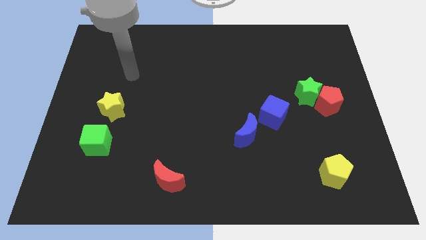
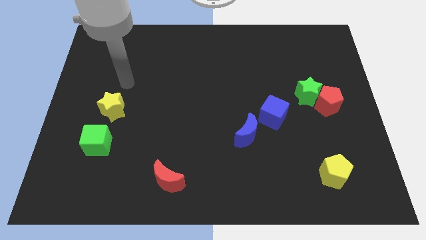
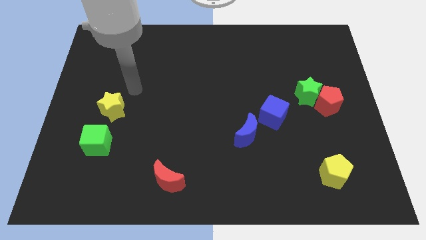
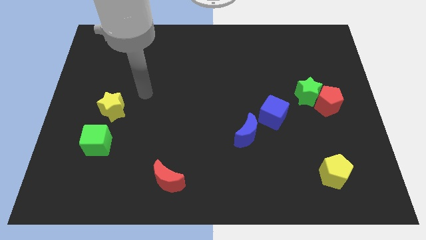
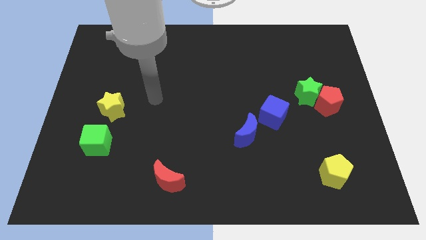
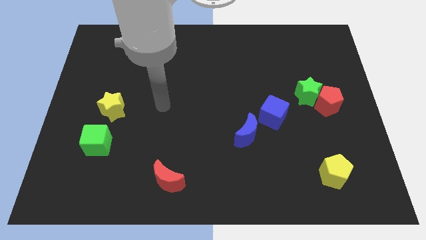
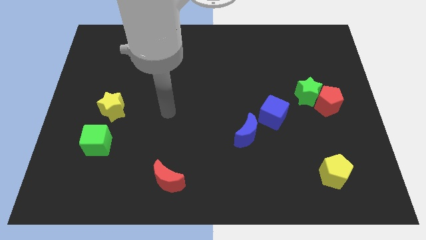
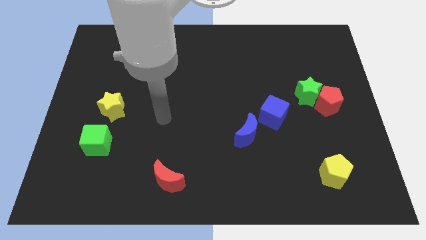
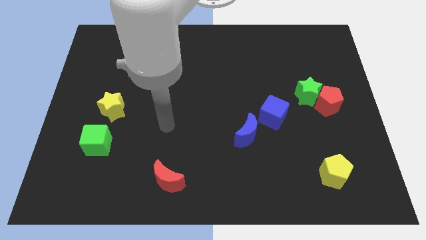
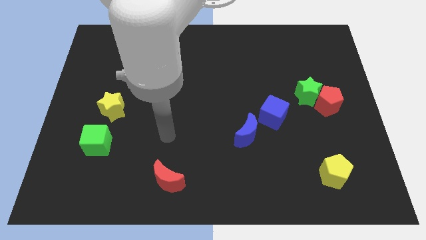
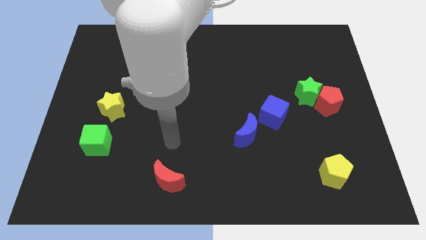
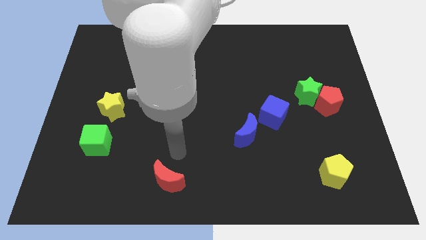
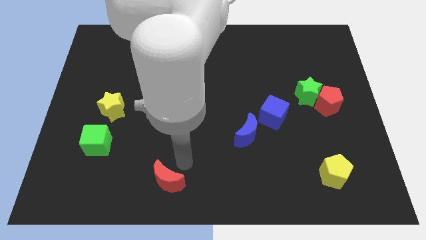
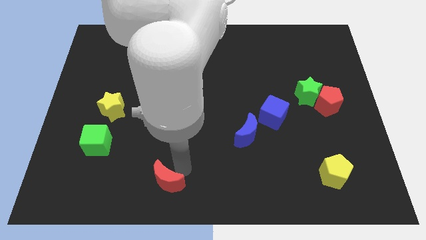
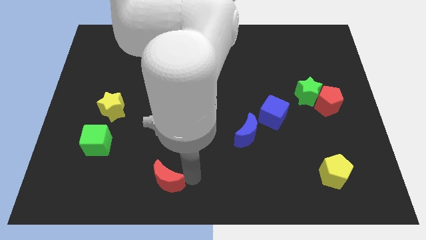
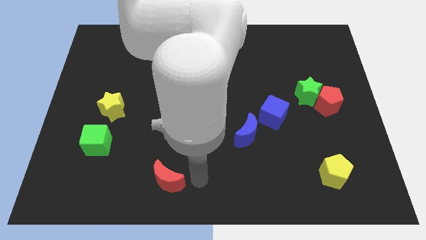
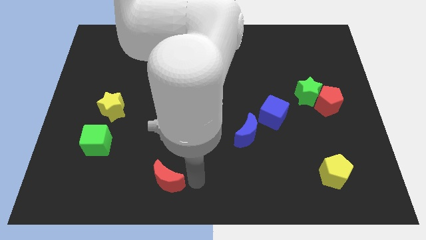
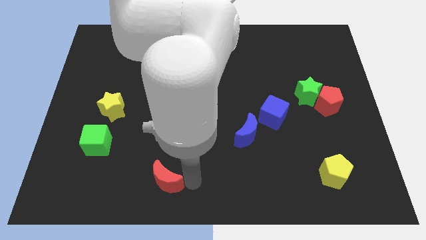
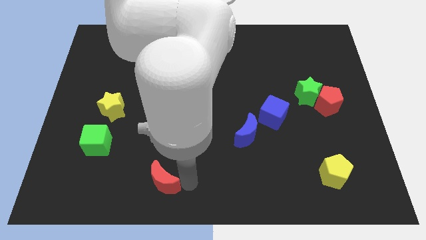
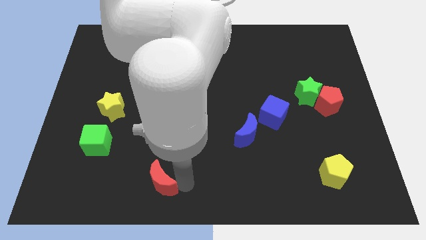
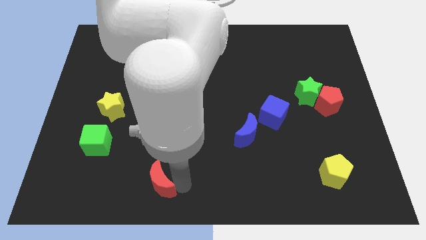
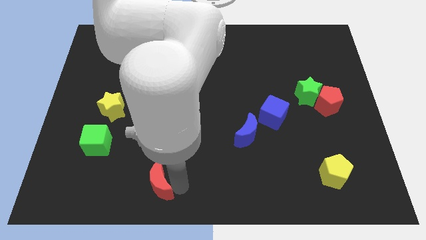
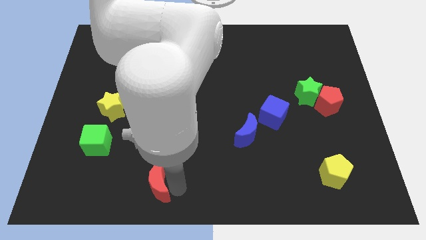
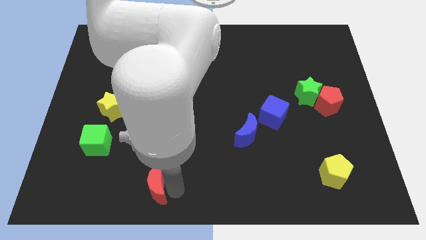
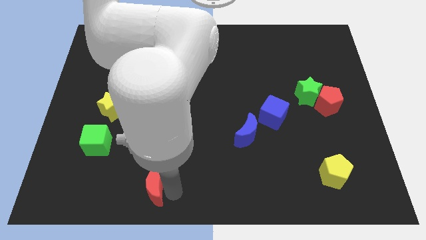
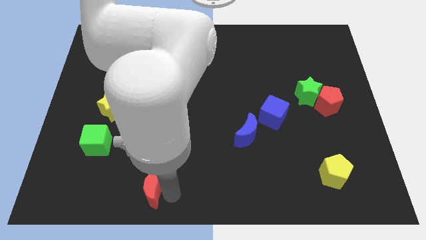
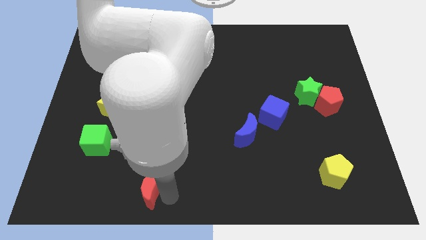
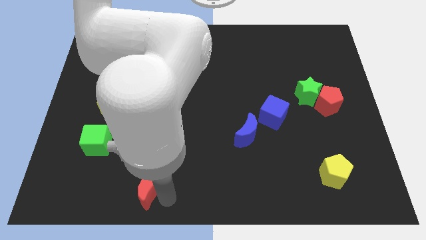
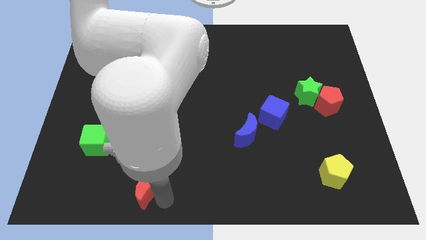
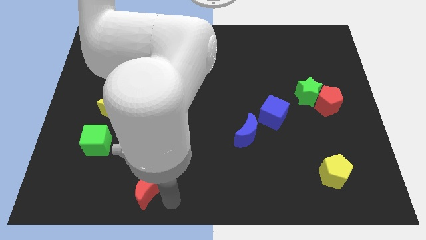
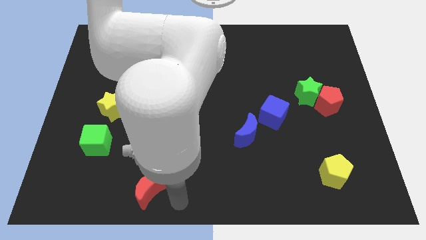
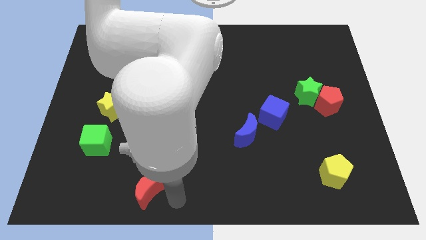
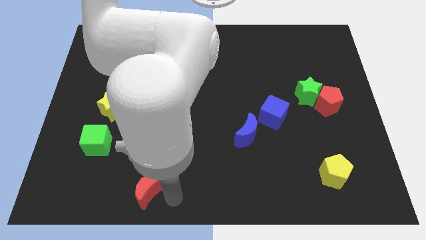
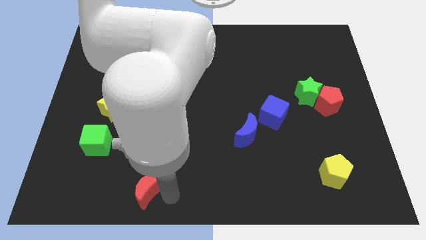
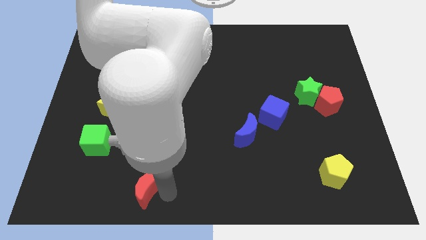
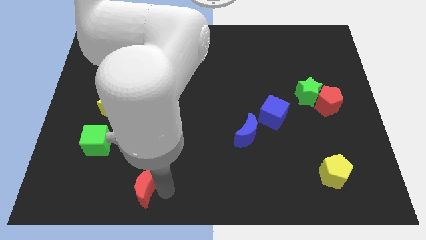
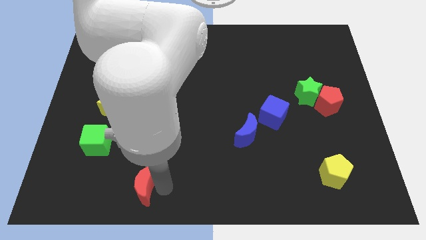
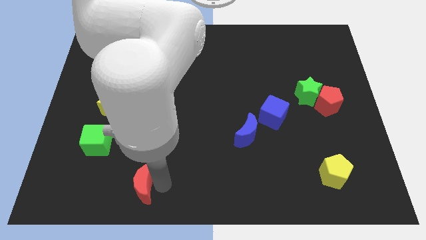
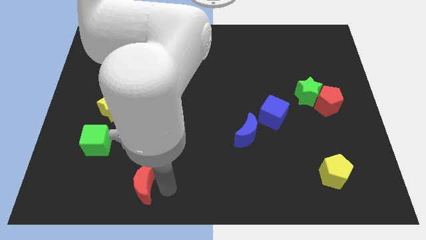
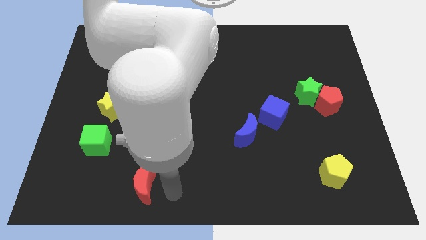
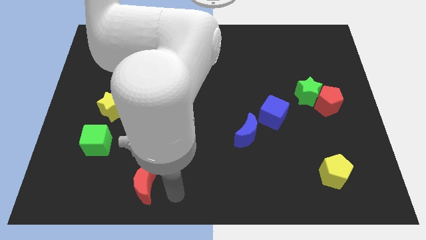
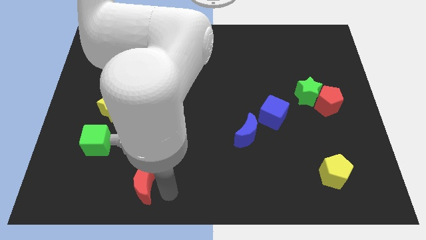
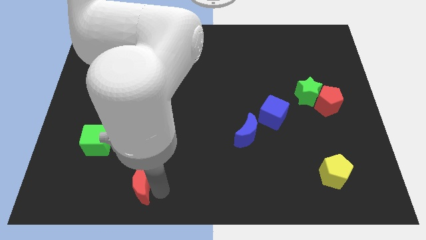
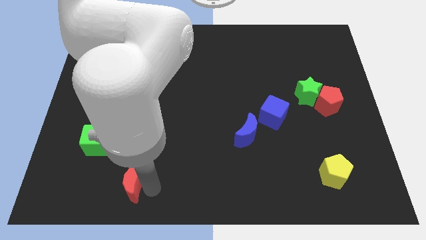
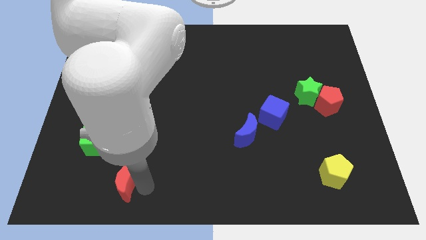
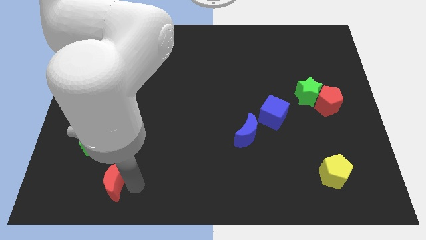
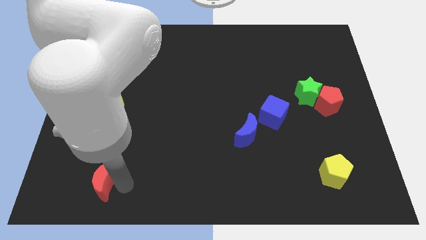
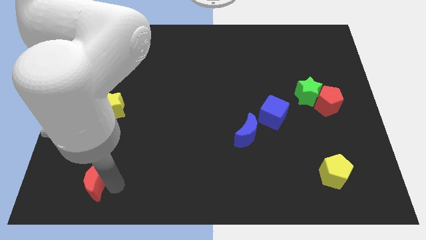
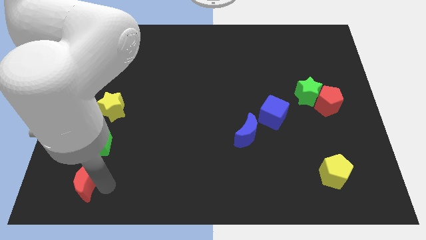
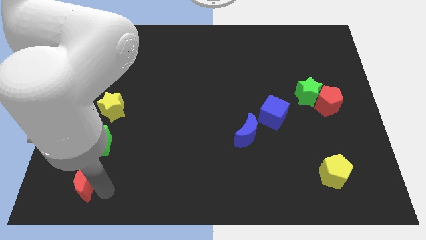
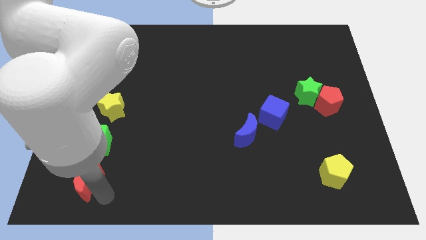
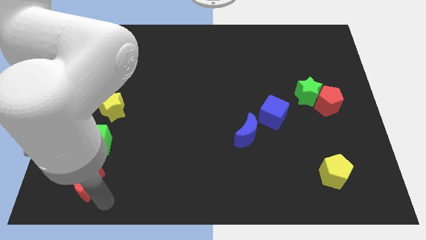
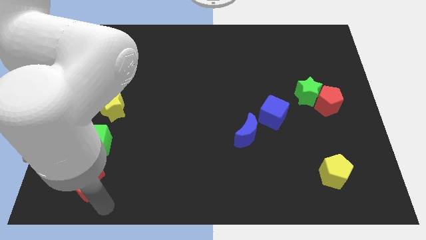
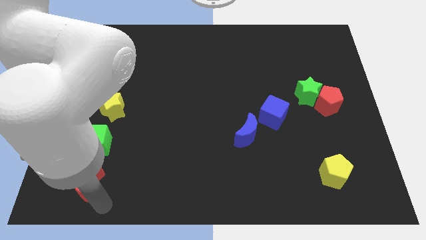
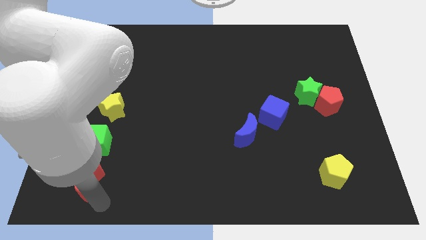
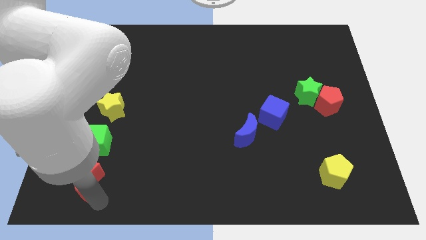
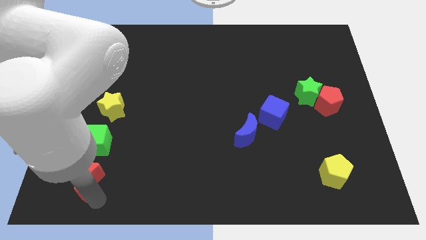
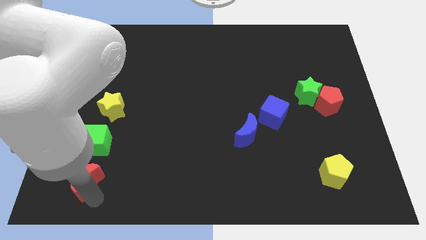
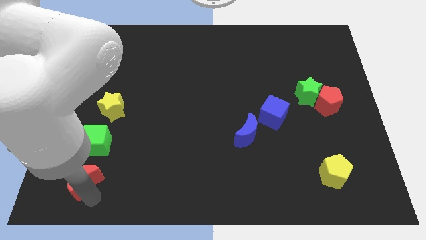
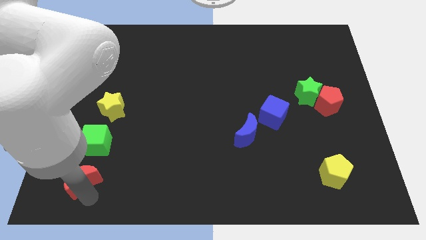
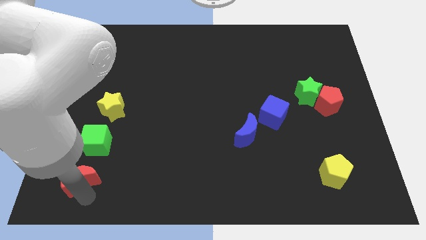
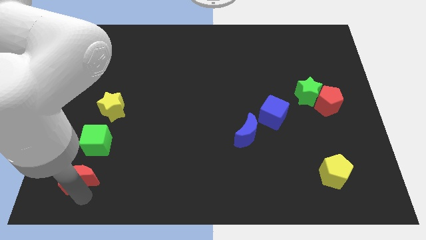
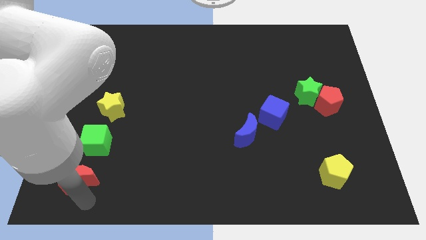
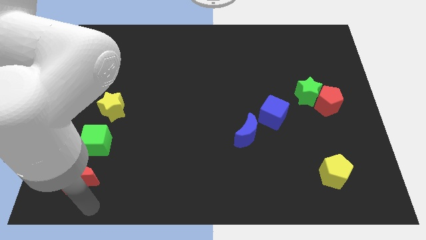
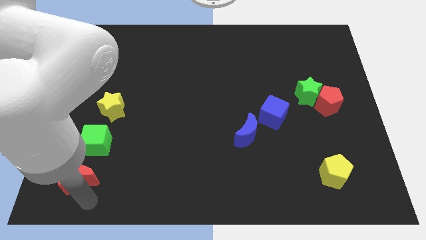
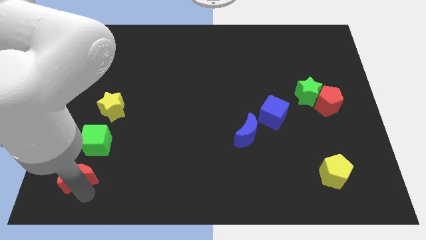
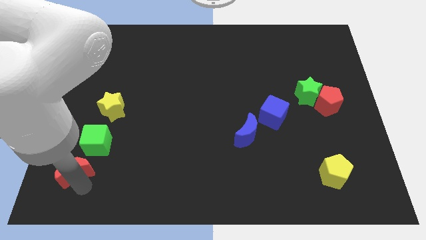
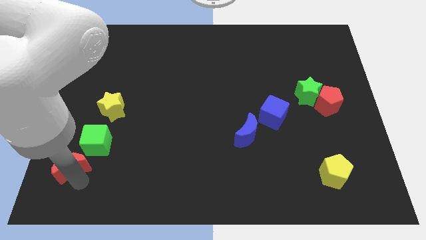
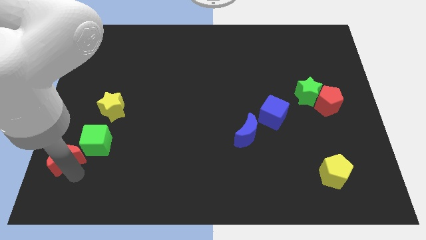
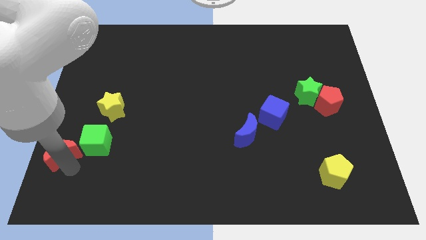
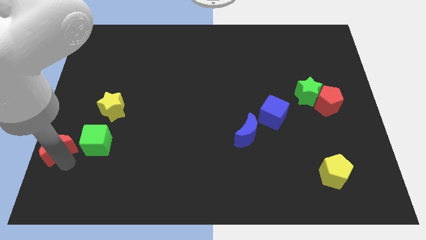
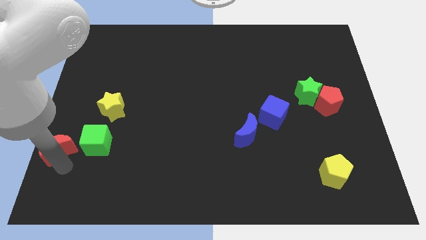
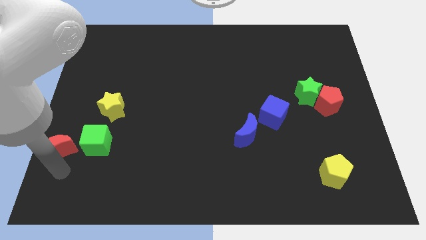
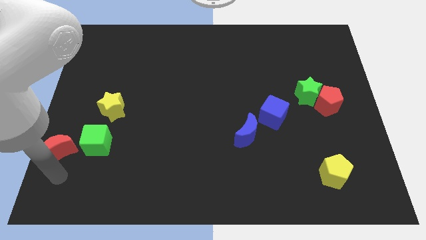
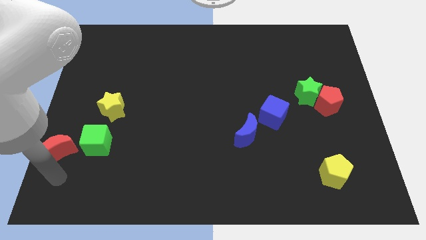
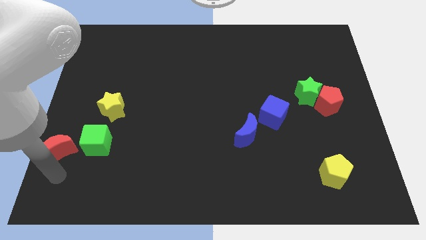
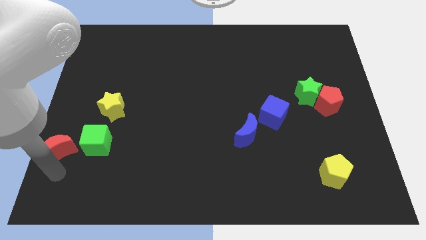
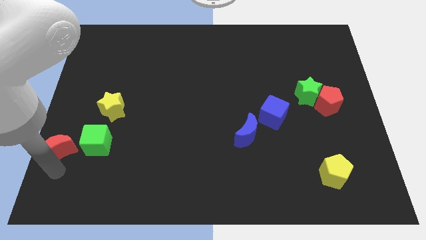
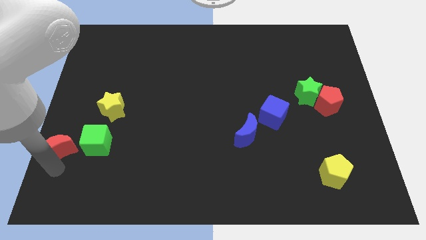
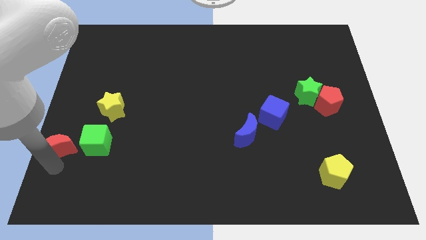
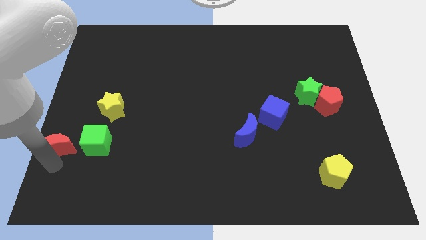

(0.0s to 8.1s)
push the red moon to the center left
